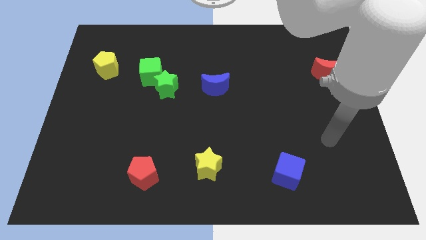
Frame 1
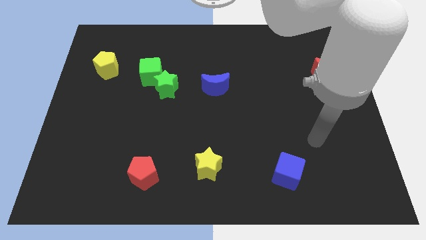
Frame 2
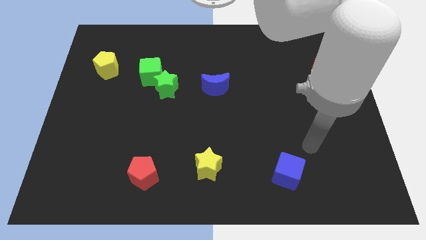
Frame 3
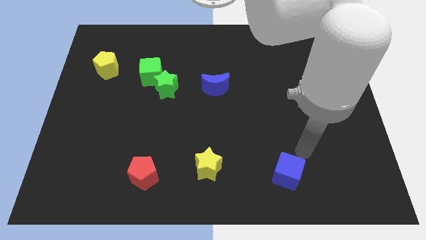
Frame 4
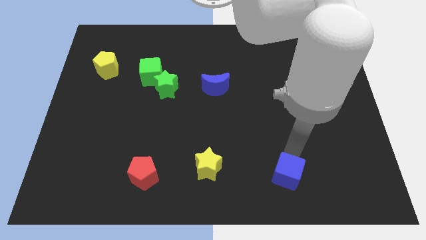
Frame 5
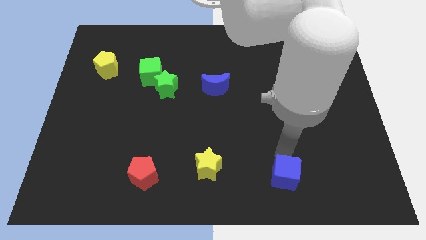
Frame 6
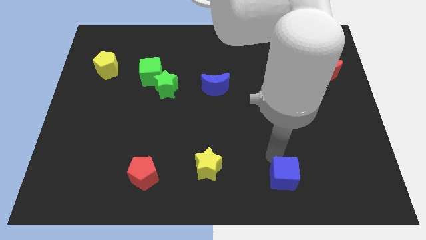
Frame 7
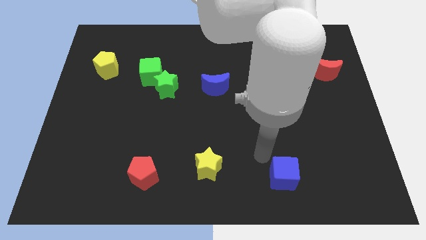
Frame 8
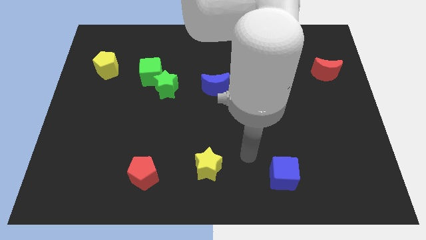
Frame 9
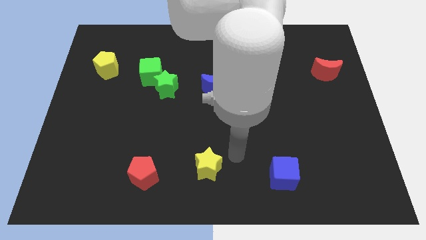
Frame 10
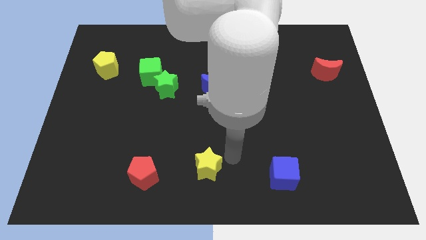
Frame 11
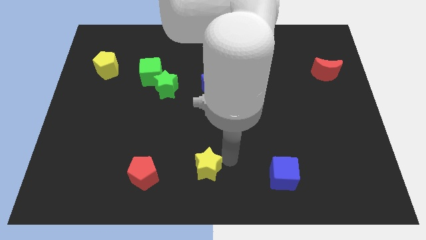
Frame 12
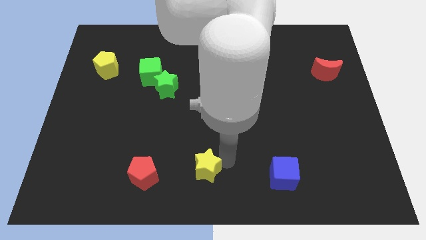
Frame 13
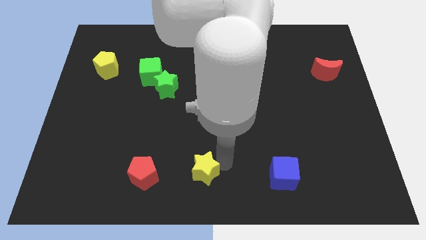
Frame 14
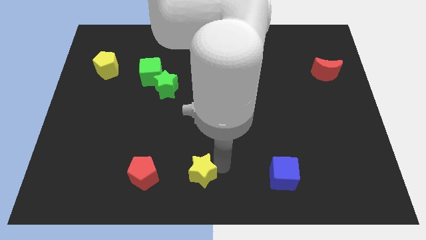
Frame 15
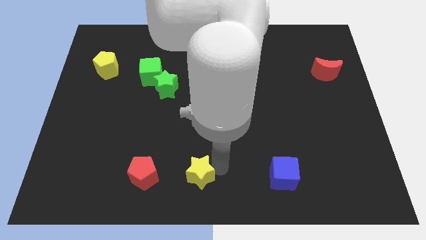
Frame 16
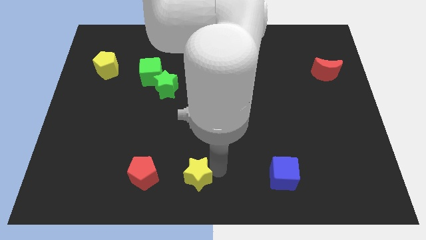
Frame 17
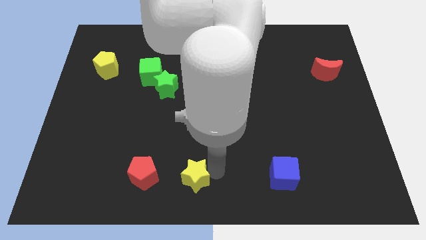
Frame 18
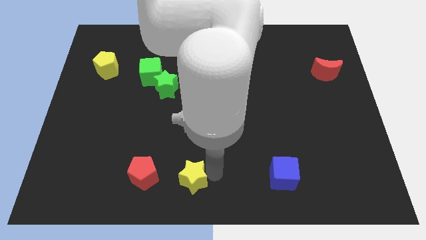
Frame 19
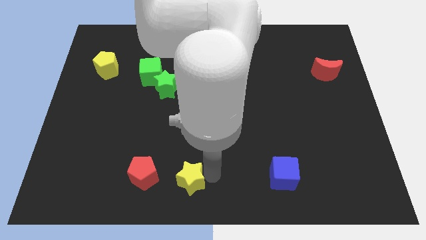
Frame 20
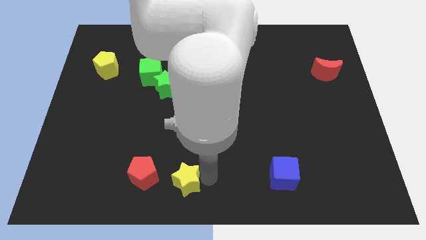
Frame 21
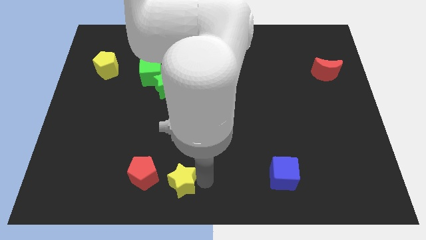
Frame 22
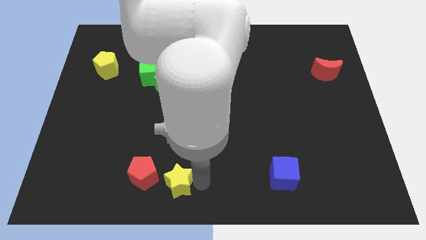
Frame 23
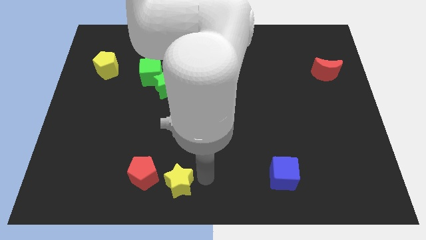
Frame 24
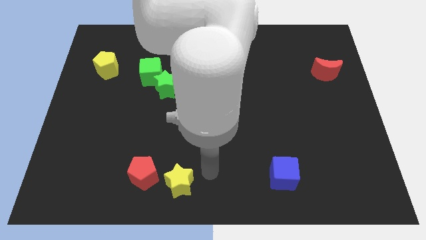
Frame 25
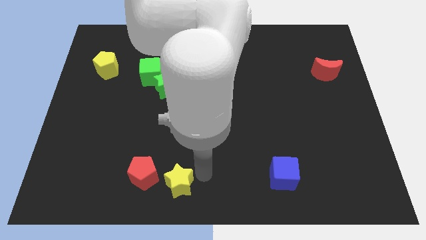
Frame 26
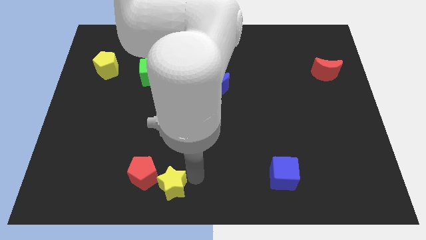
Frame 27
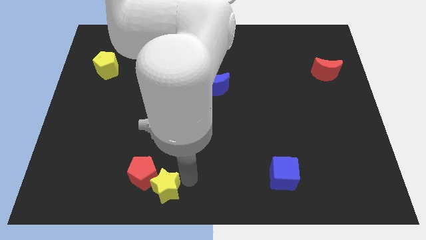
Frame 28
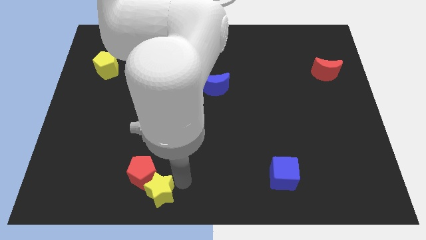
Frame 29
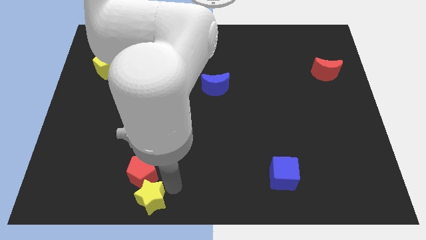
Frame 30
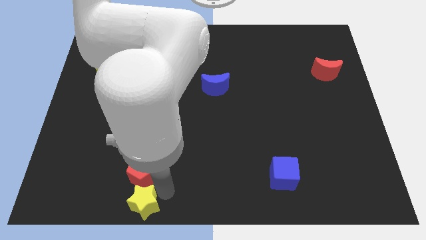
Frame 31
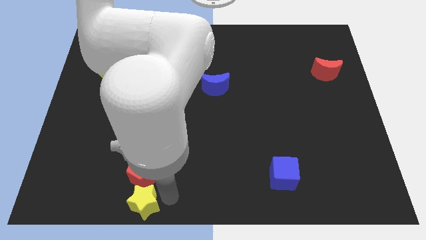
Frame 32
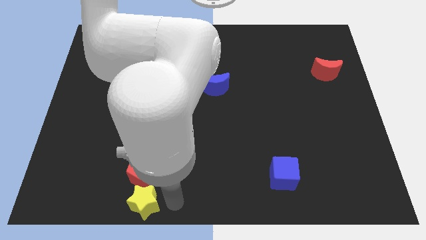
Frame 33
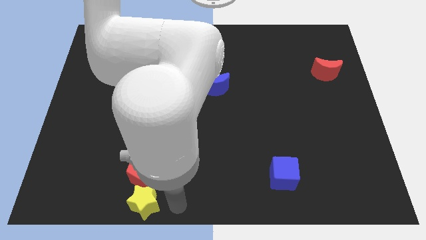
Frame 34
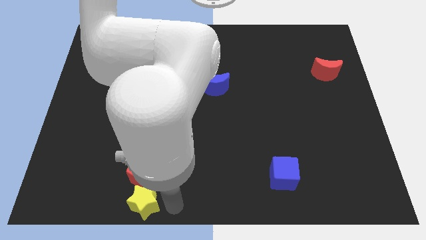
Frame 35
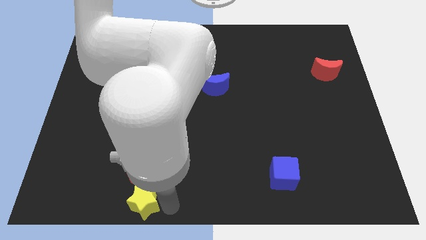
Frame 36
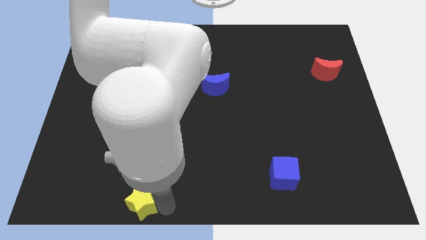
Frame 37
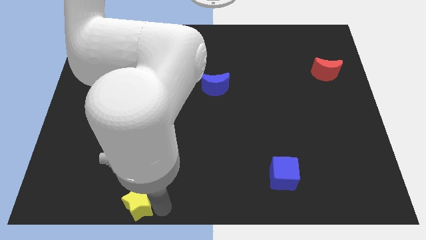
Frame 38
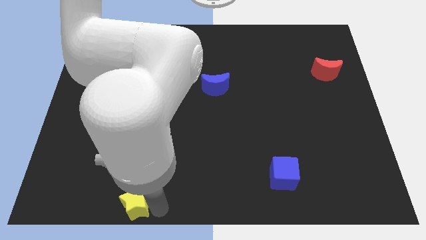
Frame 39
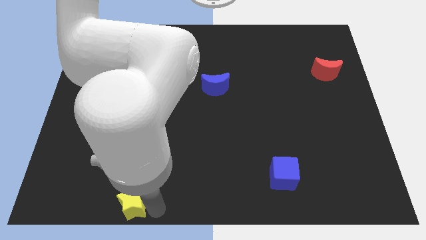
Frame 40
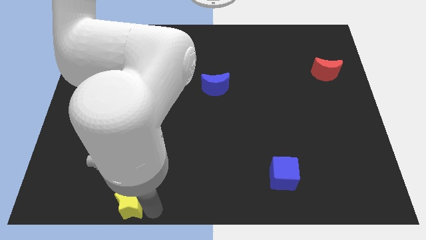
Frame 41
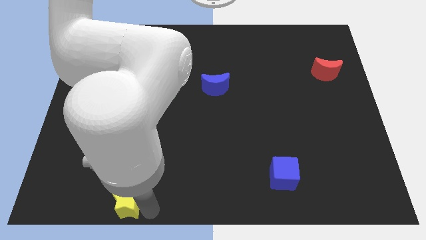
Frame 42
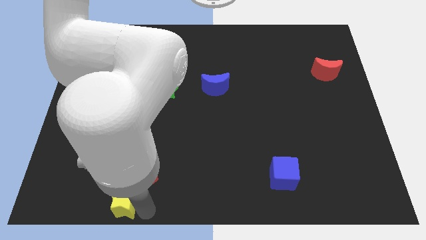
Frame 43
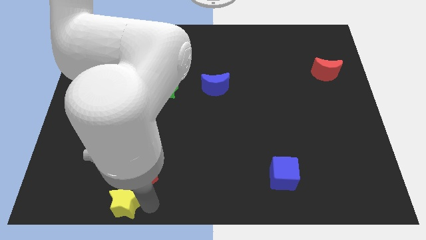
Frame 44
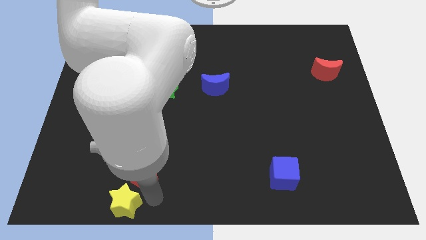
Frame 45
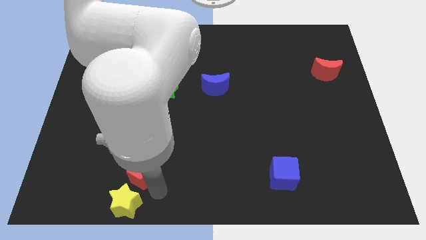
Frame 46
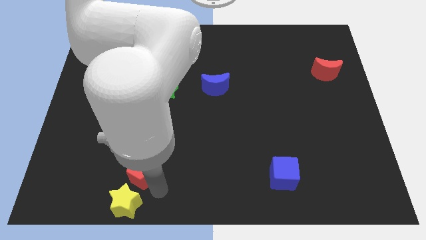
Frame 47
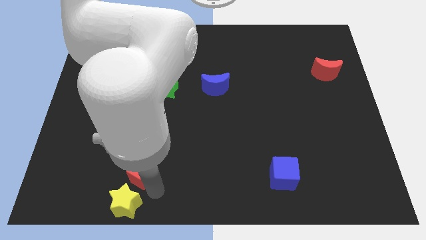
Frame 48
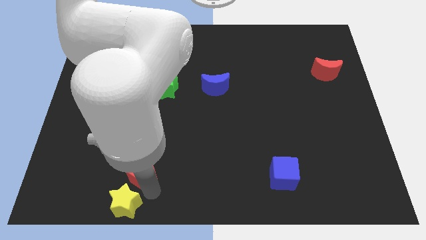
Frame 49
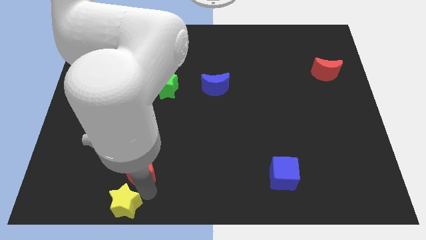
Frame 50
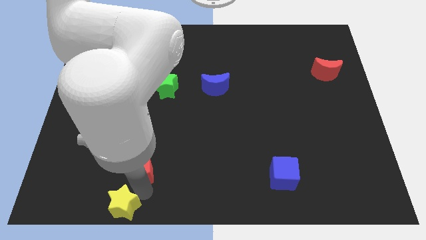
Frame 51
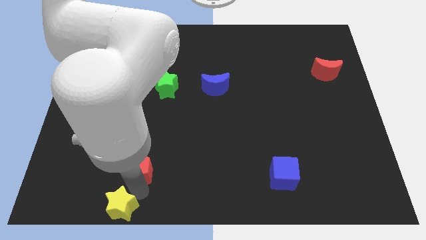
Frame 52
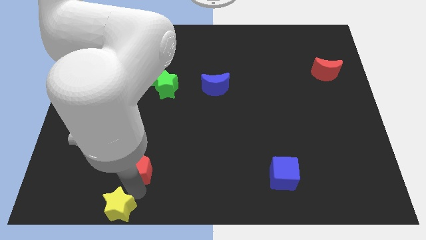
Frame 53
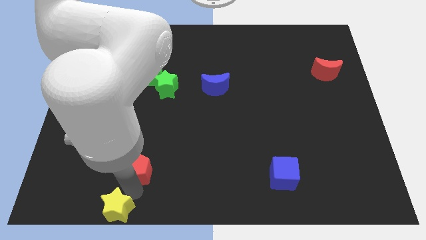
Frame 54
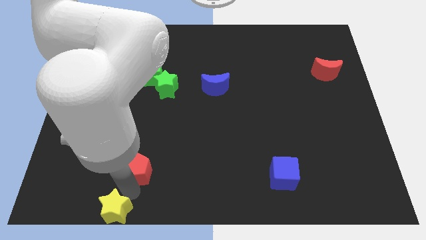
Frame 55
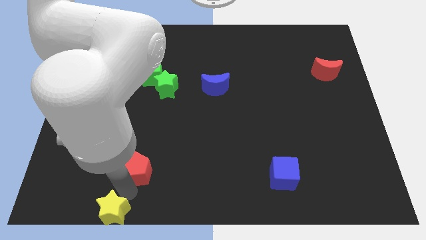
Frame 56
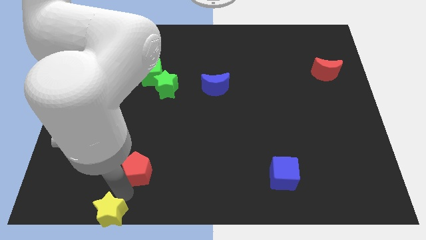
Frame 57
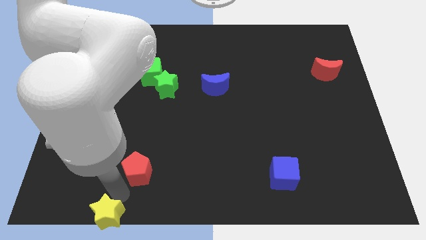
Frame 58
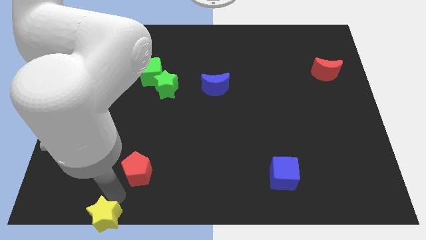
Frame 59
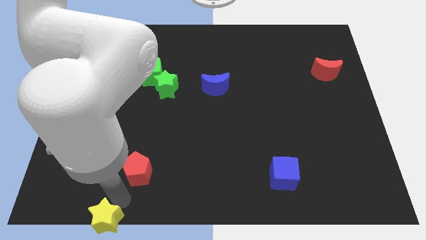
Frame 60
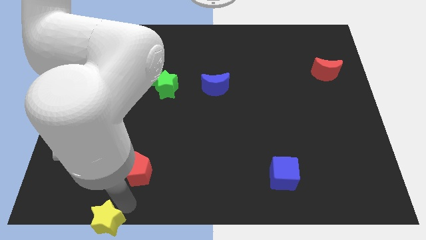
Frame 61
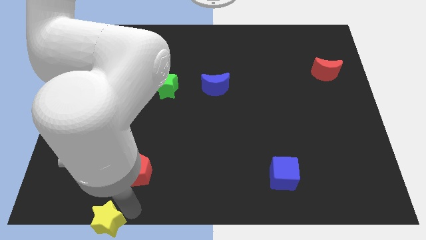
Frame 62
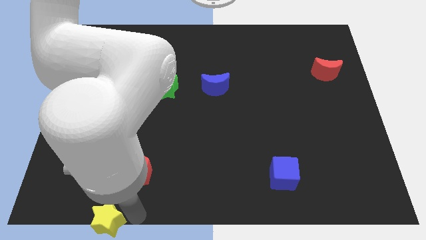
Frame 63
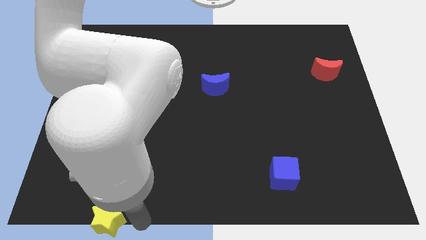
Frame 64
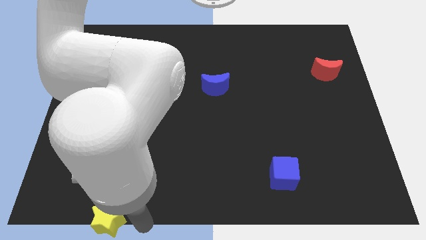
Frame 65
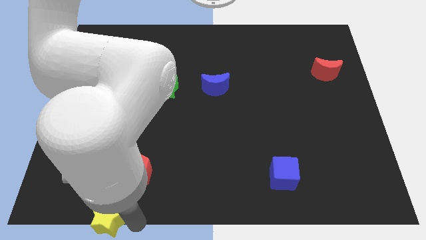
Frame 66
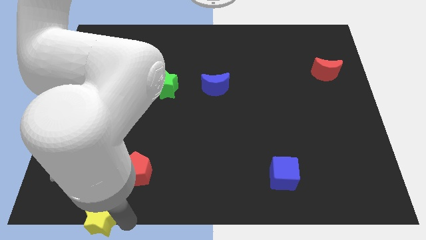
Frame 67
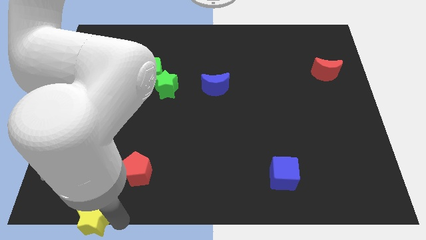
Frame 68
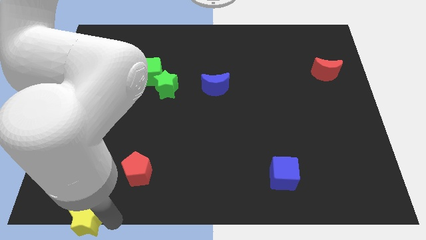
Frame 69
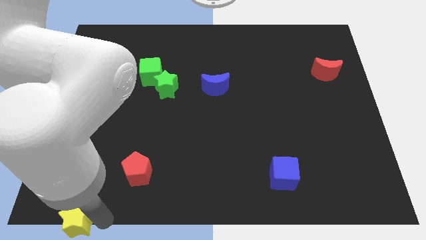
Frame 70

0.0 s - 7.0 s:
put the yellow star to the bottom left of the board

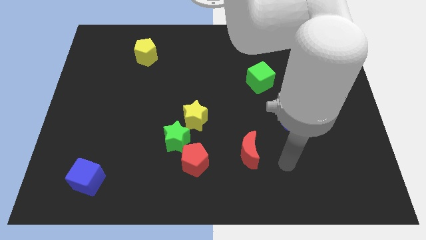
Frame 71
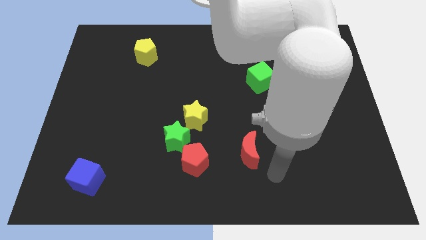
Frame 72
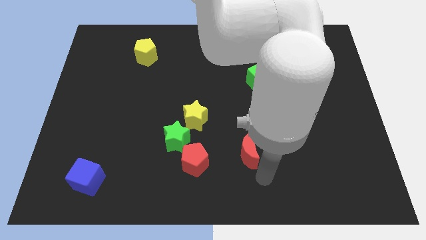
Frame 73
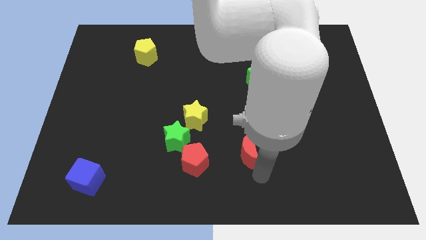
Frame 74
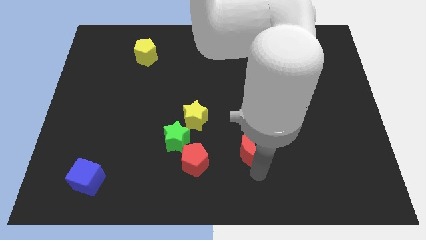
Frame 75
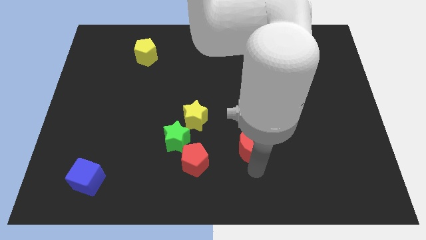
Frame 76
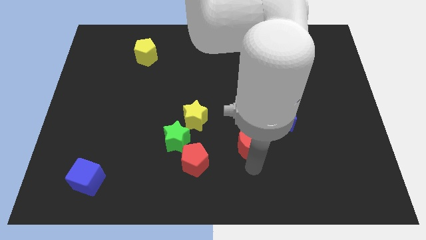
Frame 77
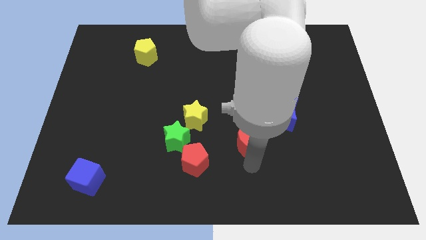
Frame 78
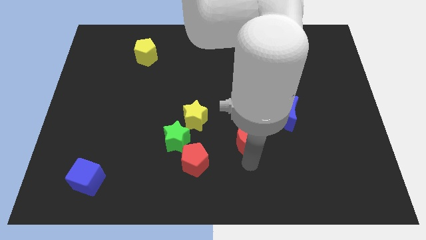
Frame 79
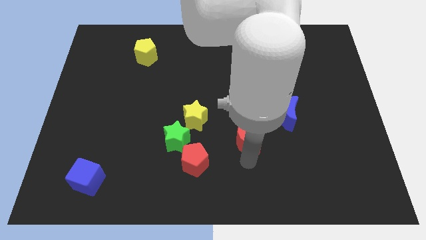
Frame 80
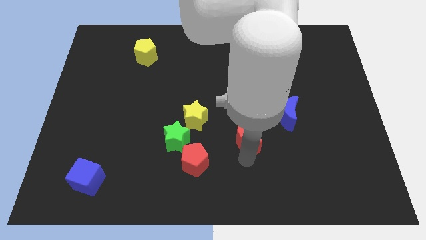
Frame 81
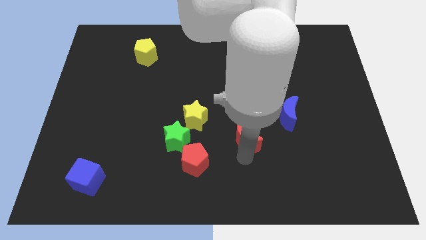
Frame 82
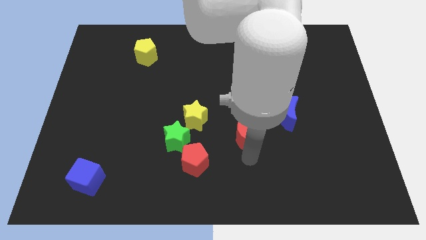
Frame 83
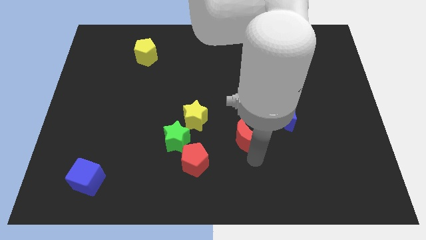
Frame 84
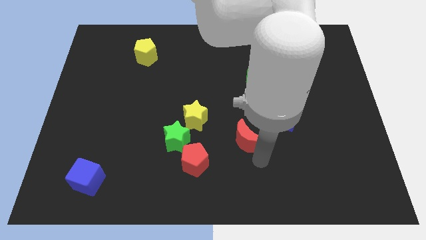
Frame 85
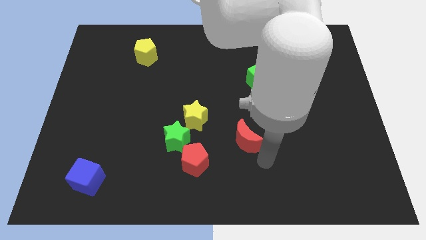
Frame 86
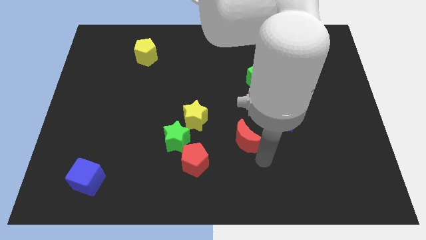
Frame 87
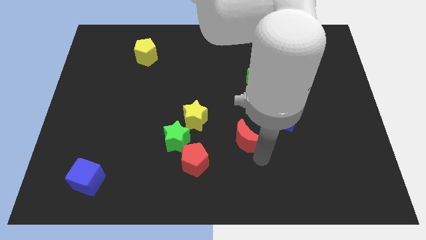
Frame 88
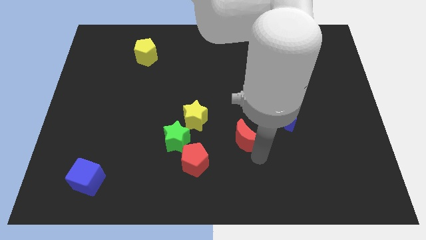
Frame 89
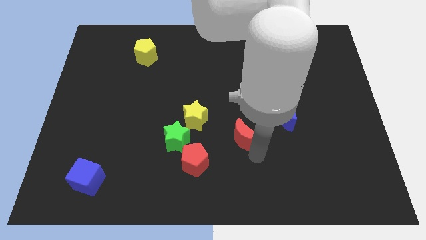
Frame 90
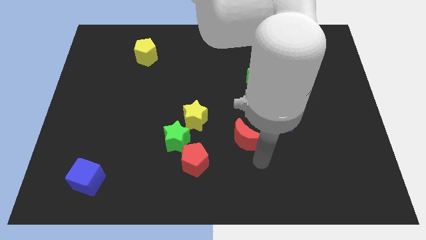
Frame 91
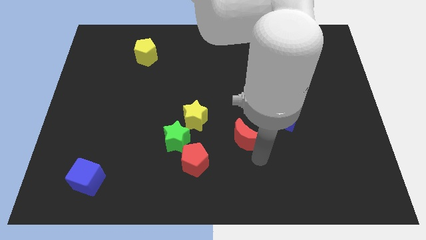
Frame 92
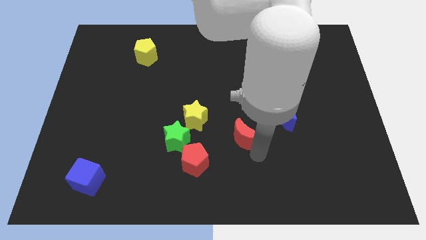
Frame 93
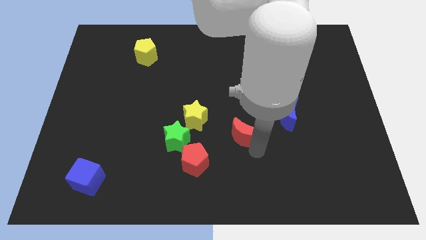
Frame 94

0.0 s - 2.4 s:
put the red moon to the center
